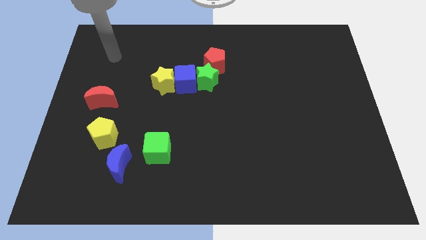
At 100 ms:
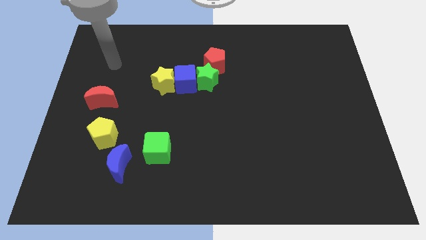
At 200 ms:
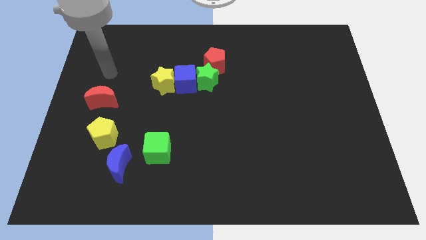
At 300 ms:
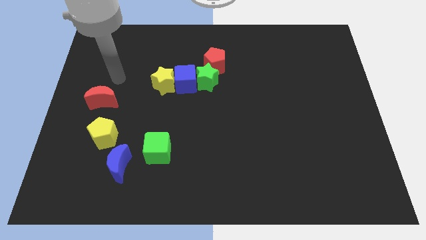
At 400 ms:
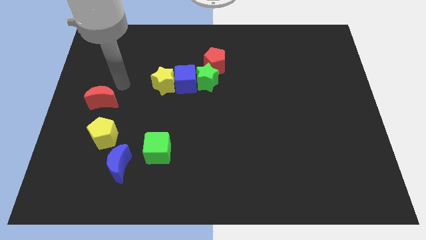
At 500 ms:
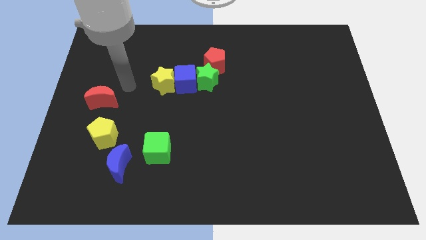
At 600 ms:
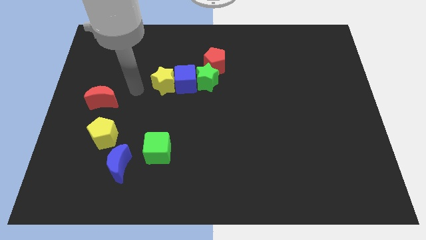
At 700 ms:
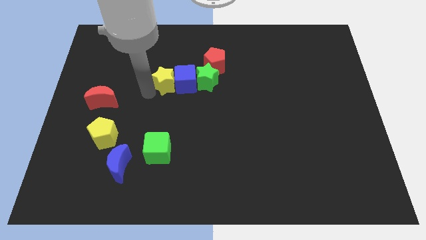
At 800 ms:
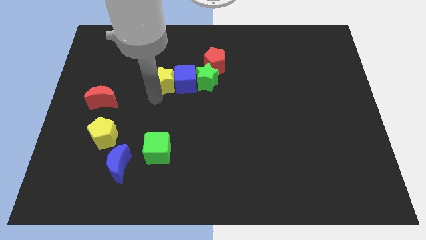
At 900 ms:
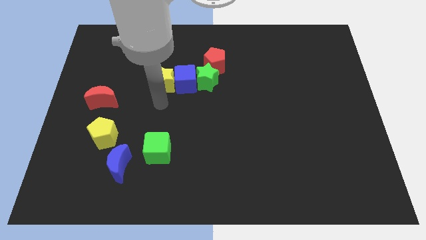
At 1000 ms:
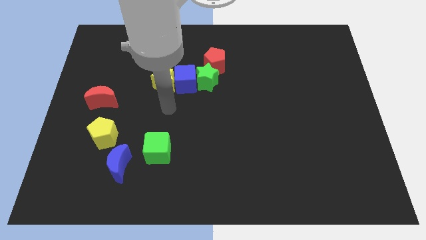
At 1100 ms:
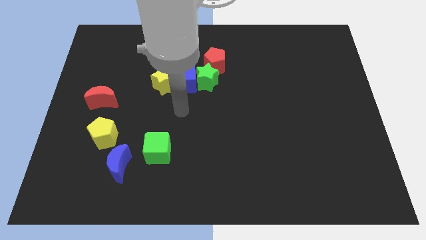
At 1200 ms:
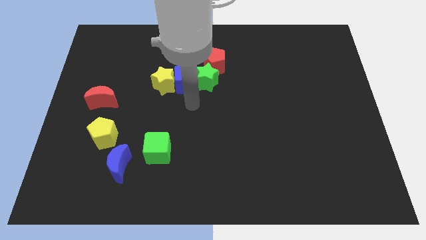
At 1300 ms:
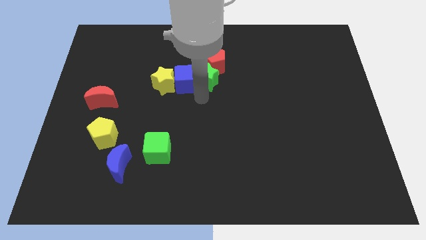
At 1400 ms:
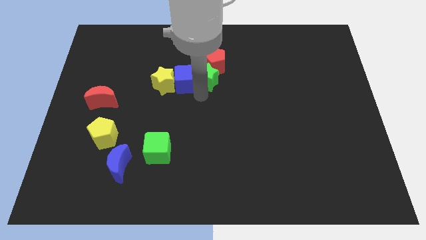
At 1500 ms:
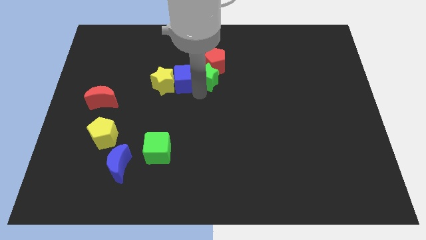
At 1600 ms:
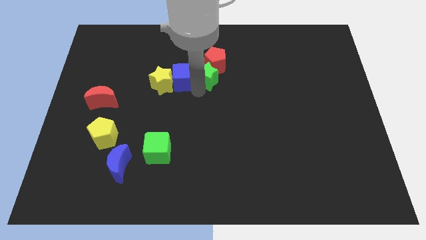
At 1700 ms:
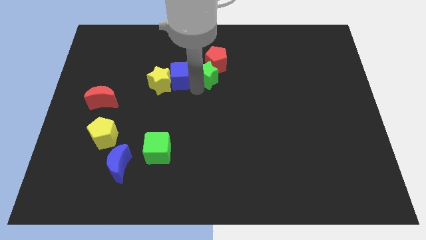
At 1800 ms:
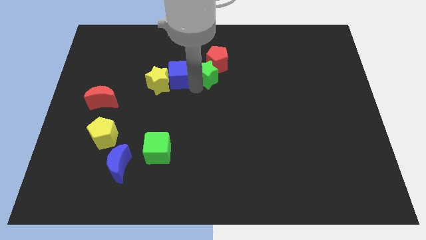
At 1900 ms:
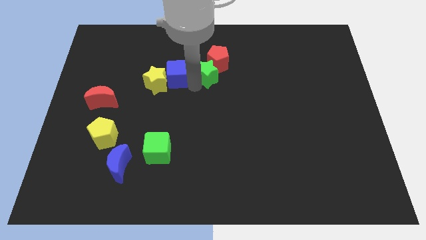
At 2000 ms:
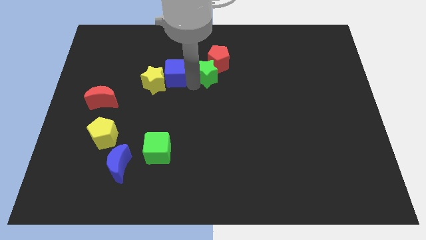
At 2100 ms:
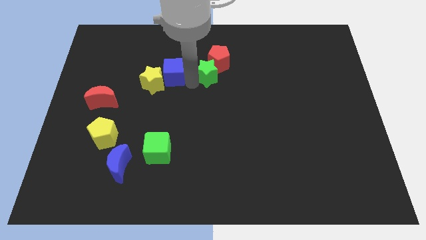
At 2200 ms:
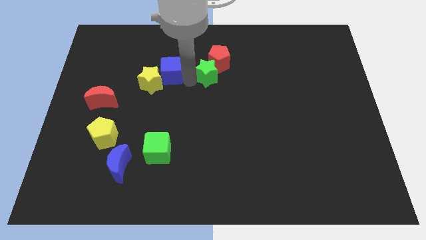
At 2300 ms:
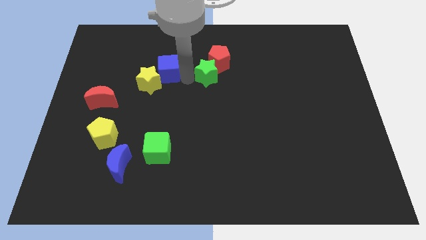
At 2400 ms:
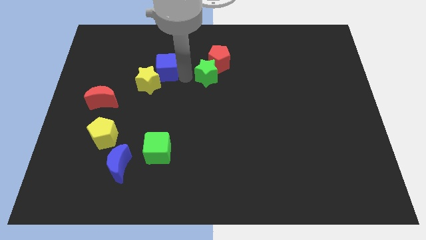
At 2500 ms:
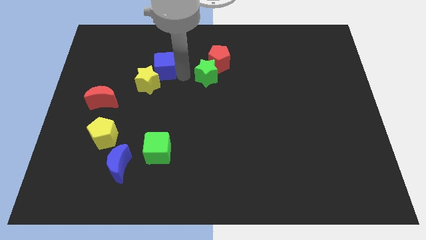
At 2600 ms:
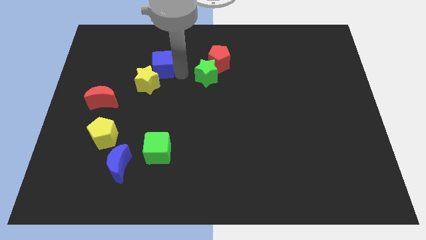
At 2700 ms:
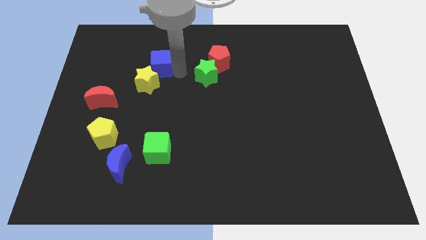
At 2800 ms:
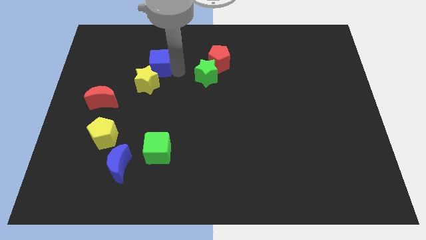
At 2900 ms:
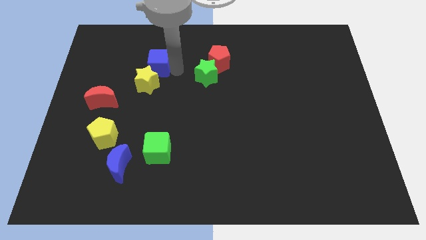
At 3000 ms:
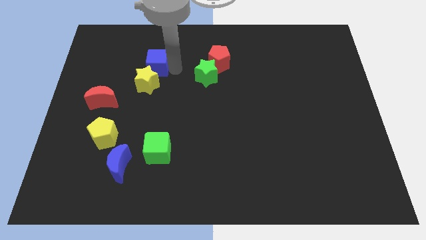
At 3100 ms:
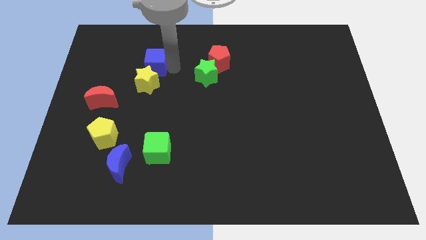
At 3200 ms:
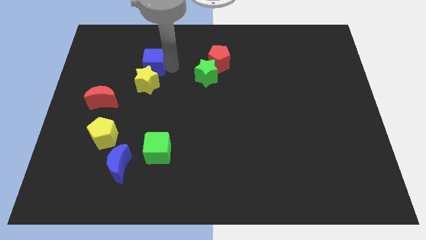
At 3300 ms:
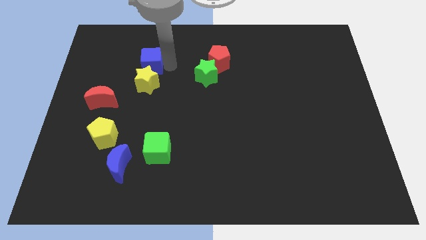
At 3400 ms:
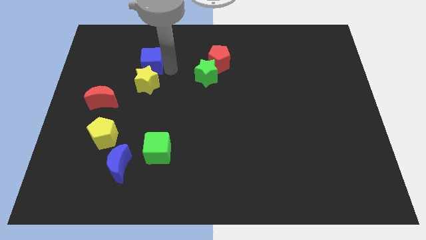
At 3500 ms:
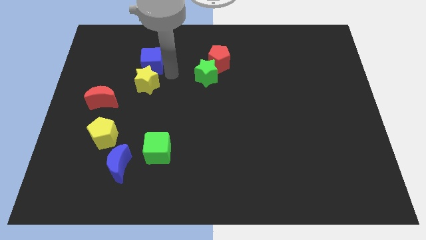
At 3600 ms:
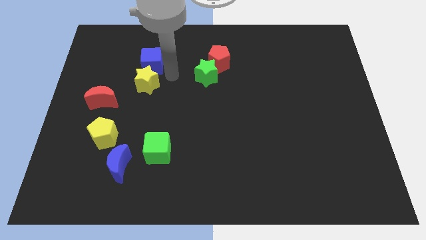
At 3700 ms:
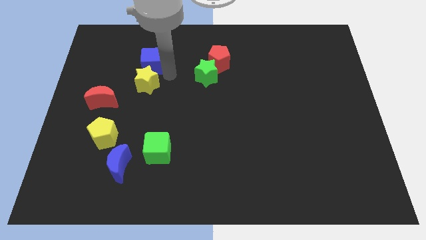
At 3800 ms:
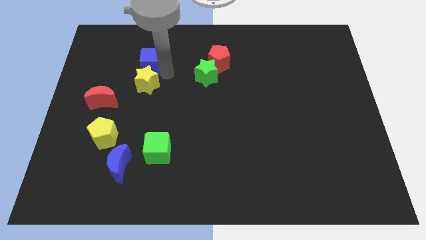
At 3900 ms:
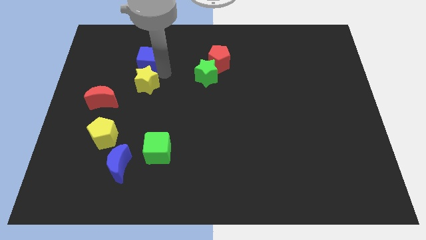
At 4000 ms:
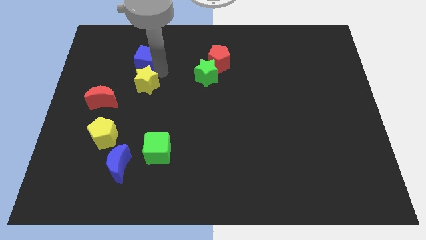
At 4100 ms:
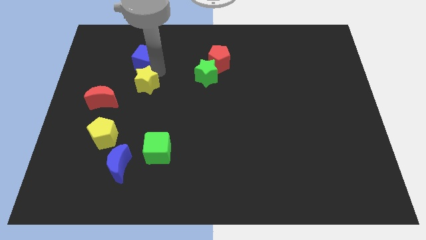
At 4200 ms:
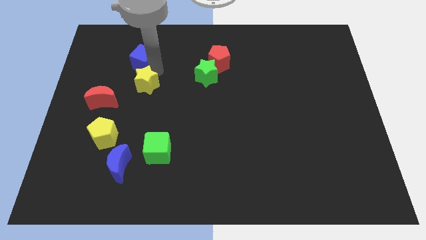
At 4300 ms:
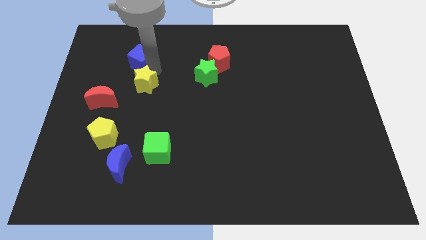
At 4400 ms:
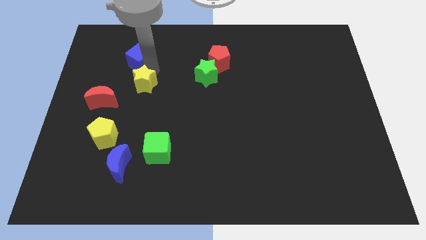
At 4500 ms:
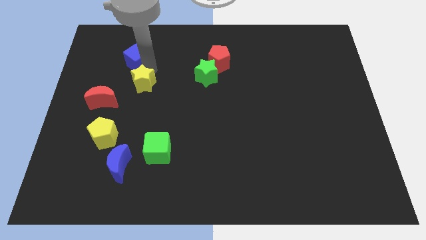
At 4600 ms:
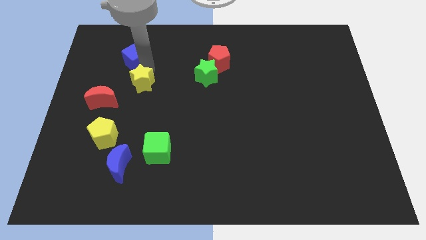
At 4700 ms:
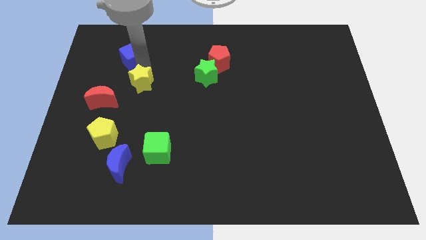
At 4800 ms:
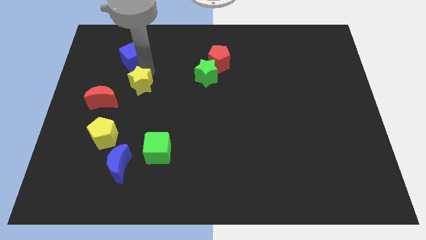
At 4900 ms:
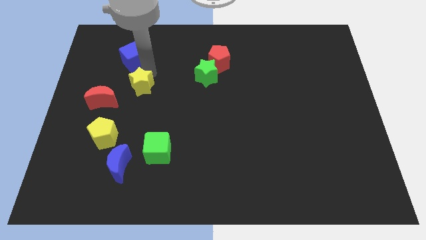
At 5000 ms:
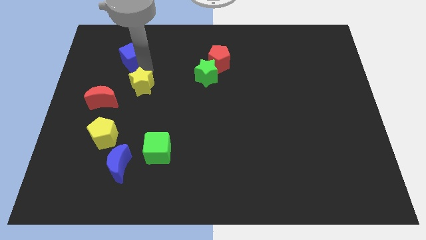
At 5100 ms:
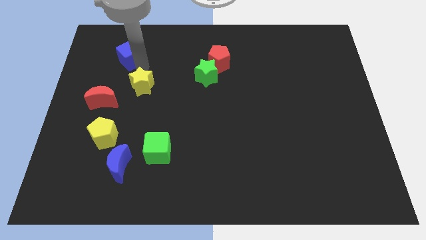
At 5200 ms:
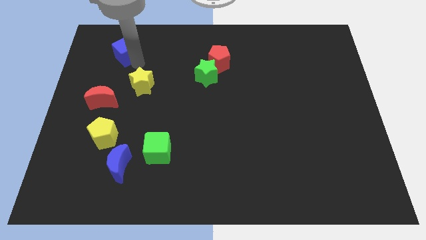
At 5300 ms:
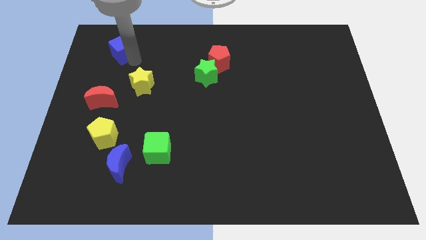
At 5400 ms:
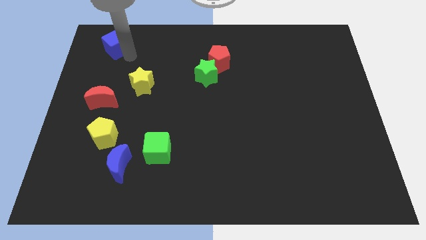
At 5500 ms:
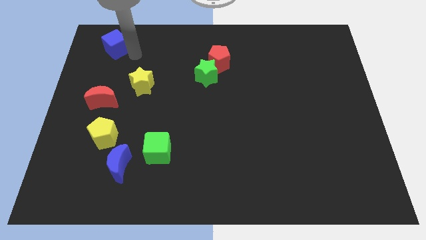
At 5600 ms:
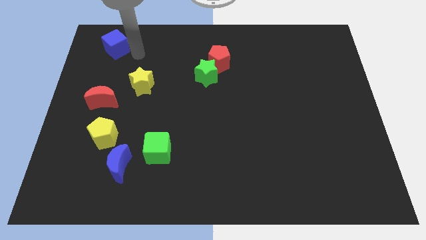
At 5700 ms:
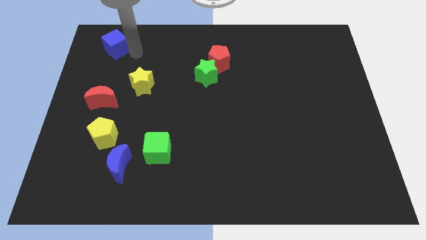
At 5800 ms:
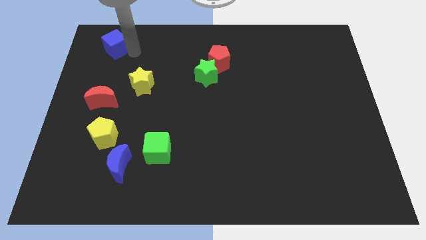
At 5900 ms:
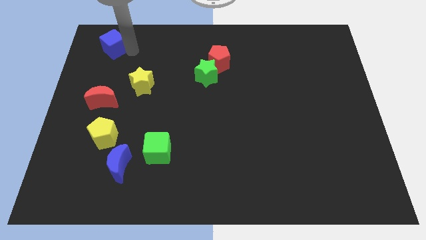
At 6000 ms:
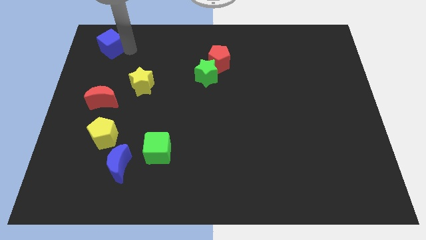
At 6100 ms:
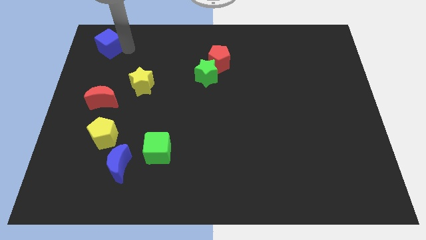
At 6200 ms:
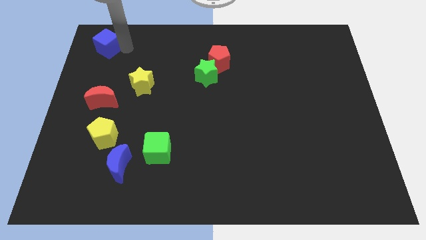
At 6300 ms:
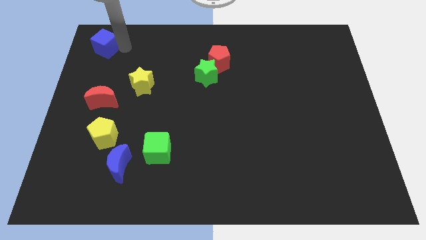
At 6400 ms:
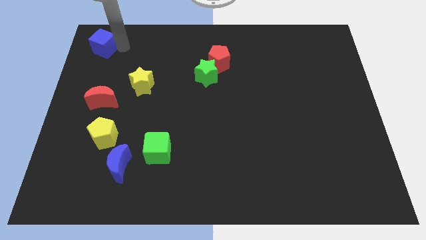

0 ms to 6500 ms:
push the blue cube to the top left of the board
